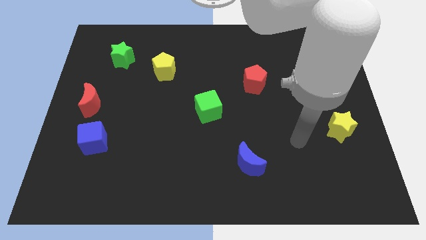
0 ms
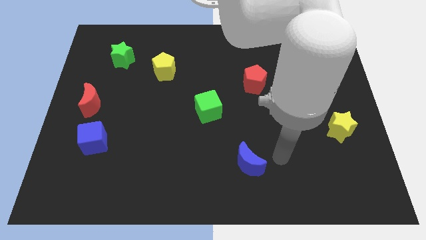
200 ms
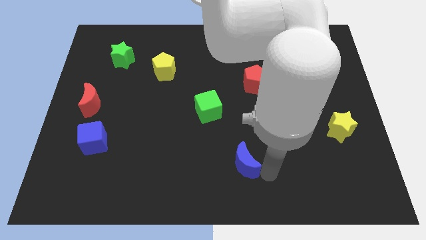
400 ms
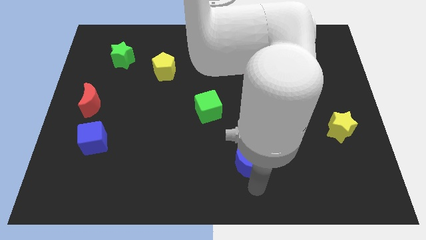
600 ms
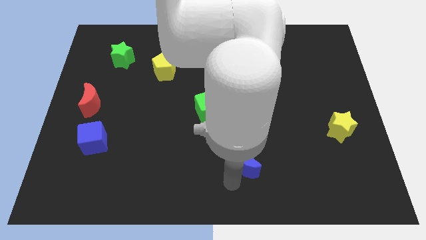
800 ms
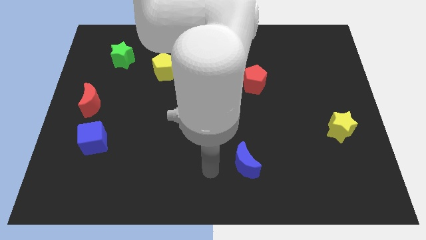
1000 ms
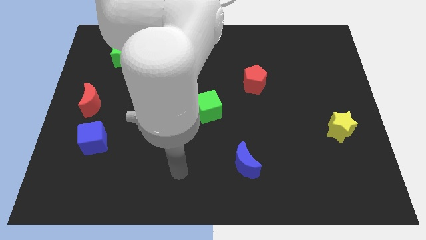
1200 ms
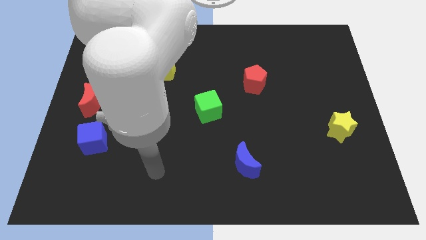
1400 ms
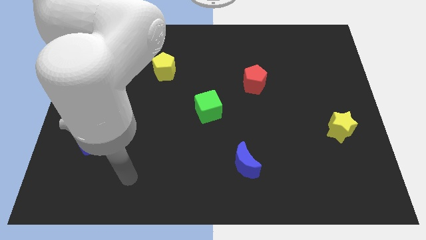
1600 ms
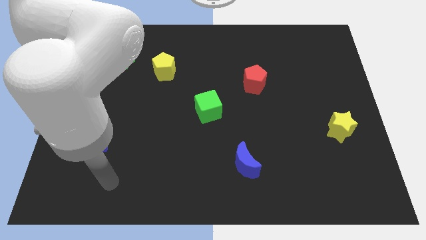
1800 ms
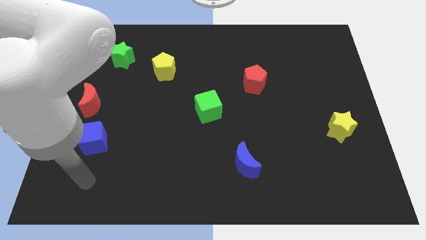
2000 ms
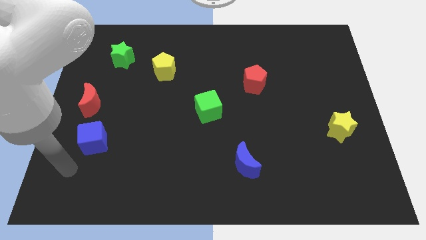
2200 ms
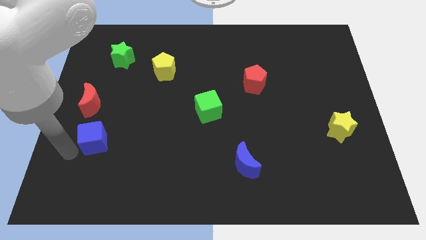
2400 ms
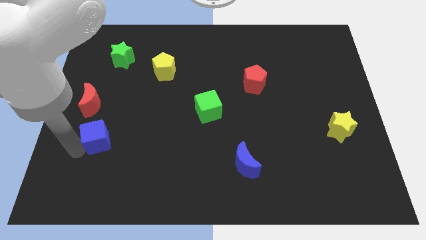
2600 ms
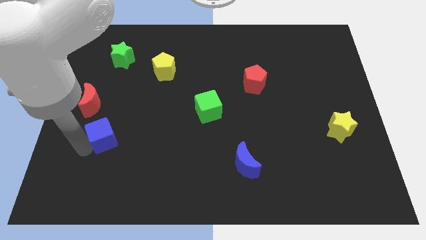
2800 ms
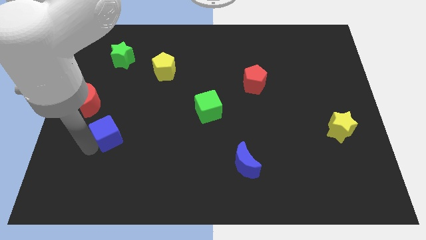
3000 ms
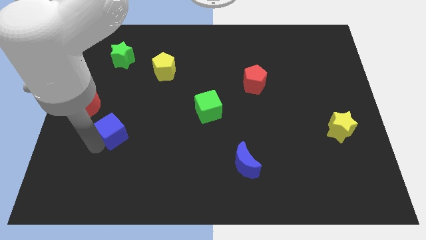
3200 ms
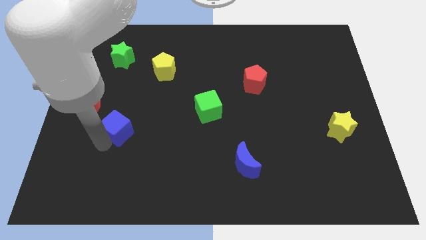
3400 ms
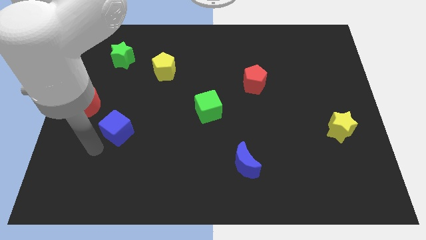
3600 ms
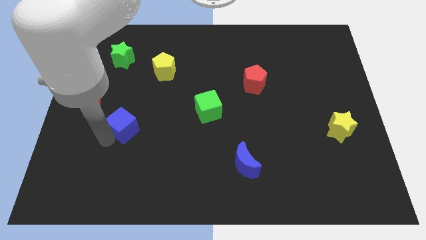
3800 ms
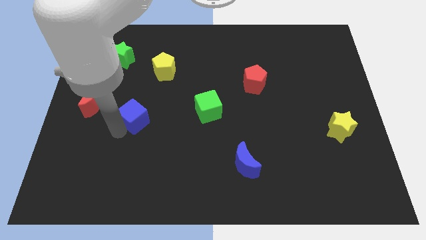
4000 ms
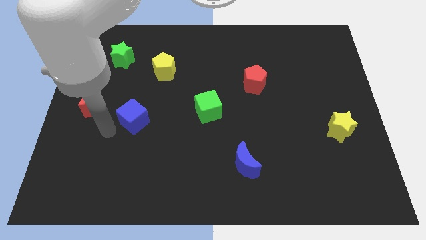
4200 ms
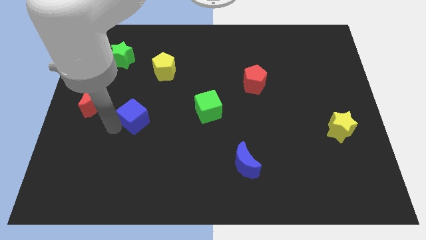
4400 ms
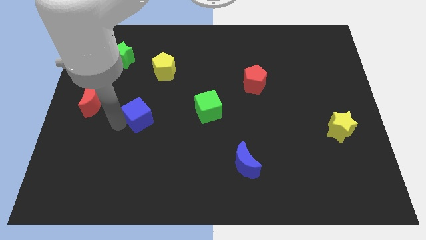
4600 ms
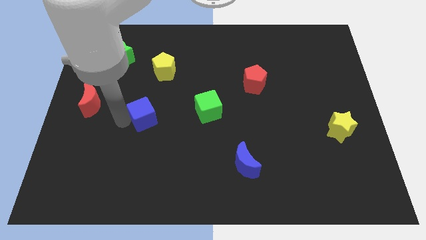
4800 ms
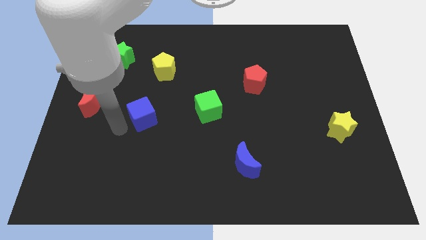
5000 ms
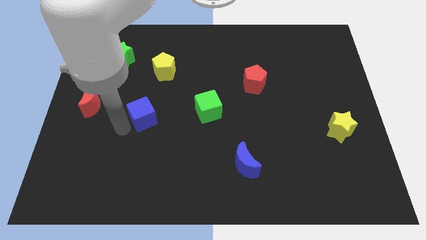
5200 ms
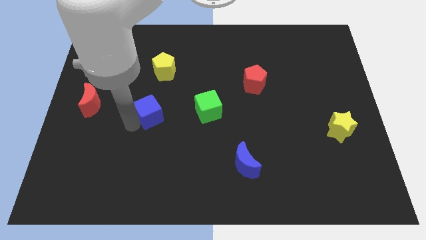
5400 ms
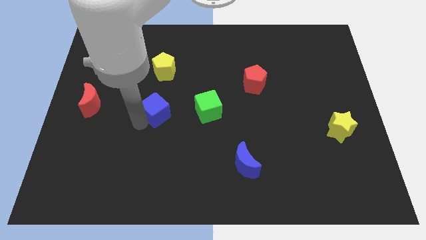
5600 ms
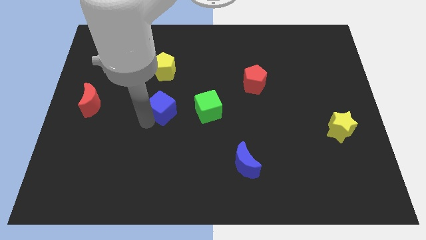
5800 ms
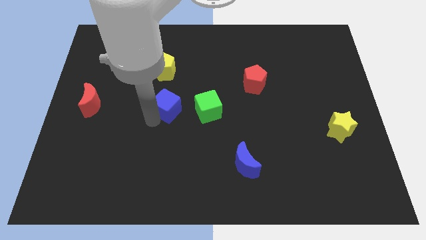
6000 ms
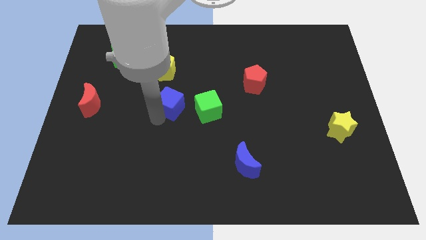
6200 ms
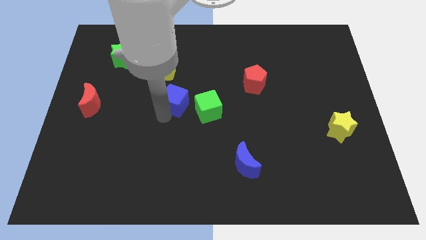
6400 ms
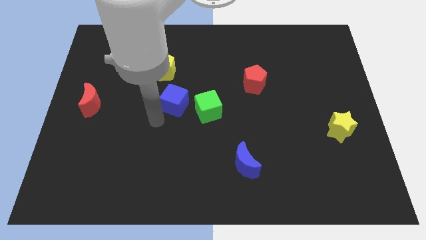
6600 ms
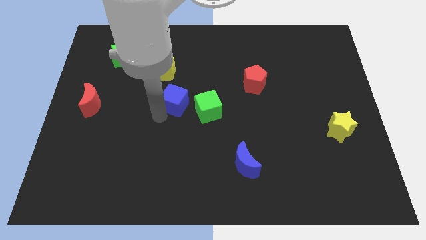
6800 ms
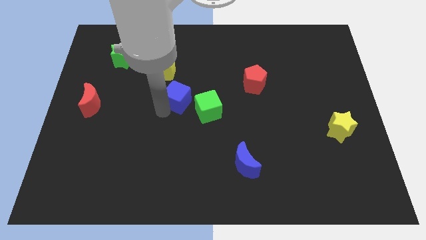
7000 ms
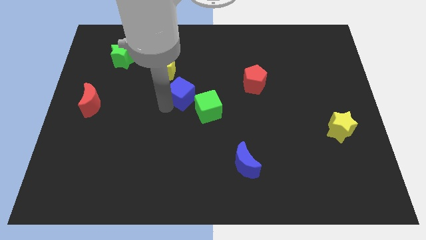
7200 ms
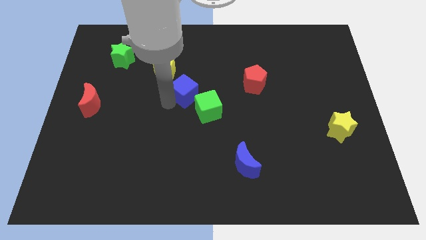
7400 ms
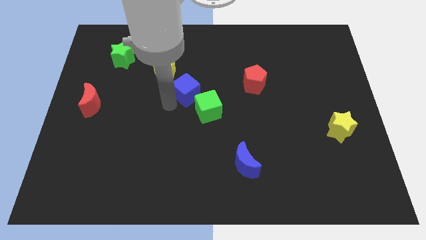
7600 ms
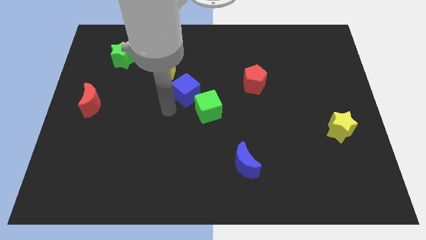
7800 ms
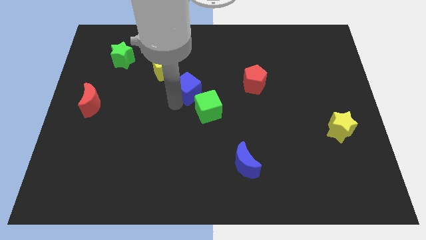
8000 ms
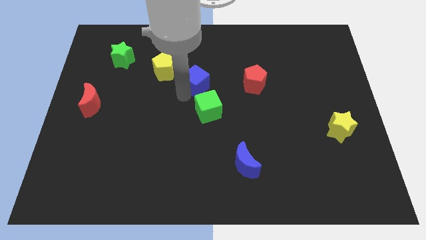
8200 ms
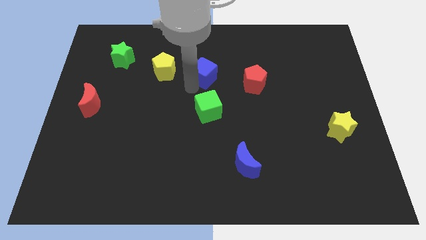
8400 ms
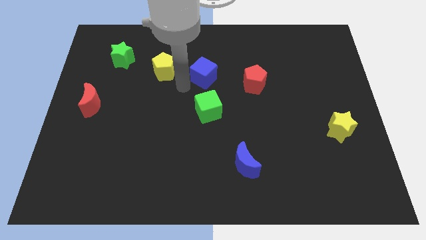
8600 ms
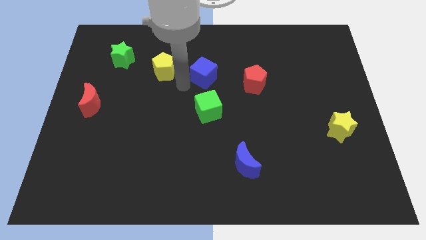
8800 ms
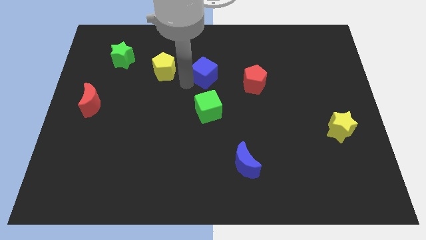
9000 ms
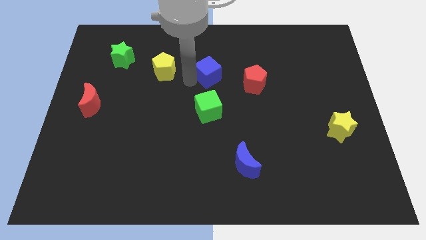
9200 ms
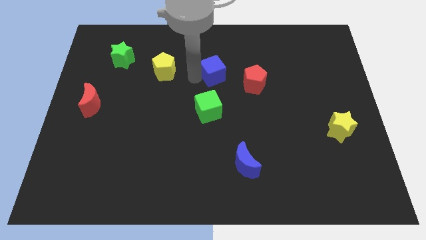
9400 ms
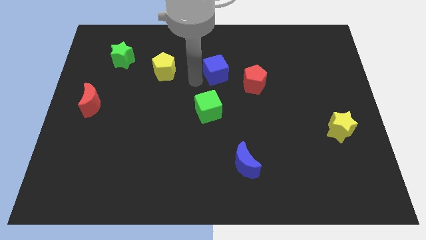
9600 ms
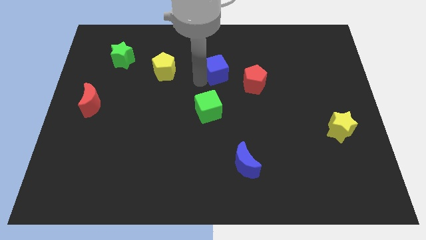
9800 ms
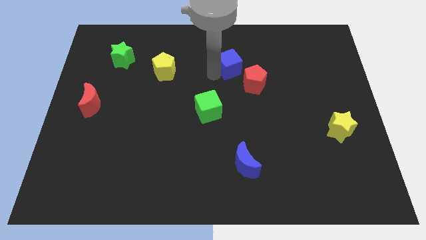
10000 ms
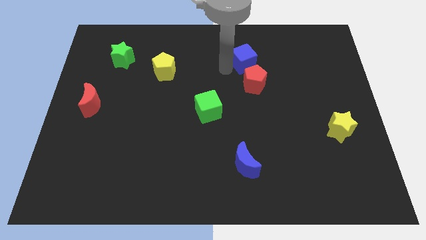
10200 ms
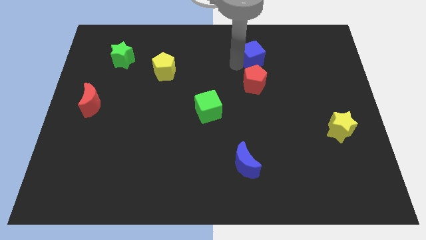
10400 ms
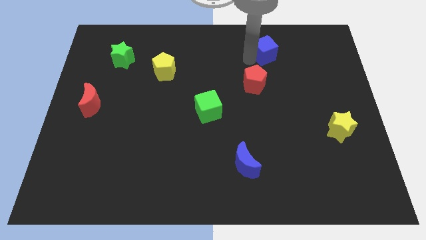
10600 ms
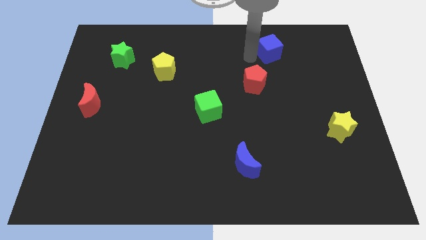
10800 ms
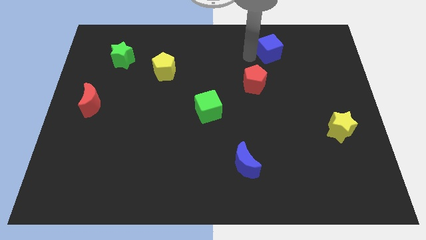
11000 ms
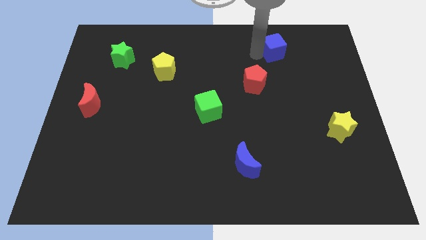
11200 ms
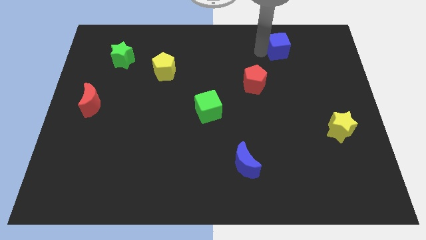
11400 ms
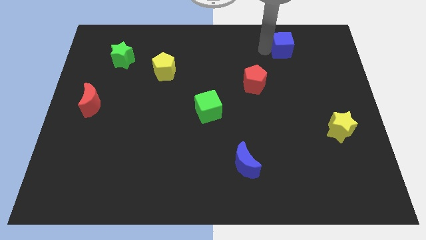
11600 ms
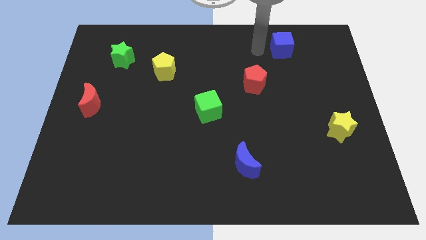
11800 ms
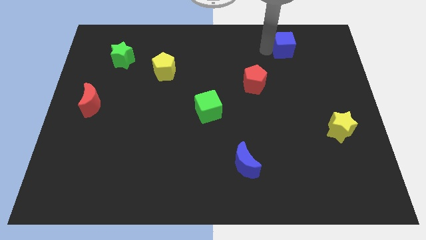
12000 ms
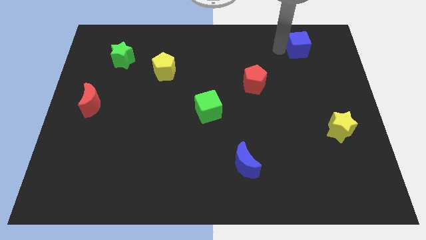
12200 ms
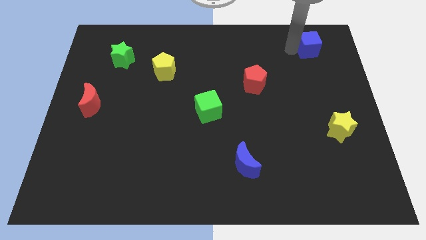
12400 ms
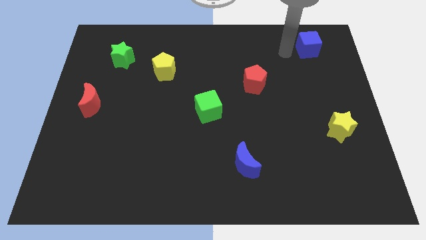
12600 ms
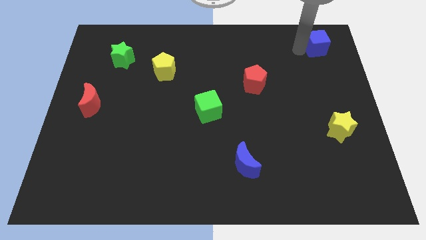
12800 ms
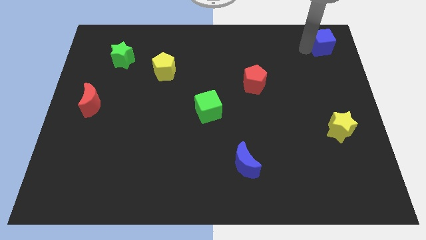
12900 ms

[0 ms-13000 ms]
put the blue cube to the top right corner
